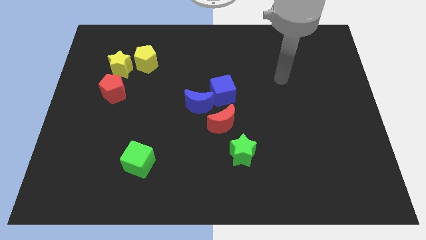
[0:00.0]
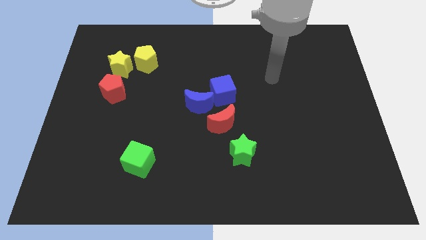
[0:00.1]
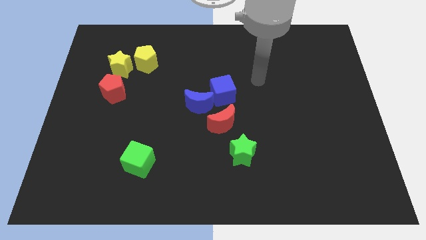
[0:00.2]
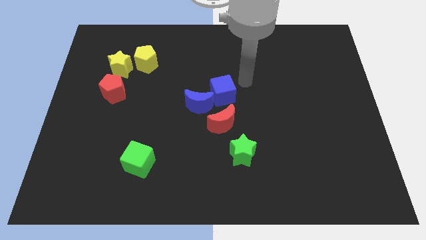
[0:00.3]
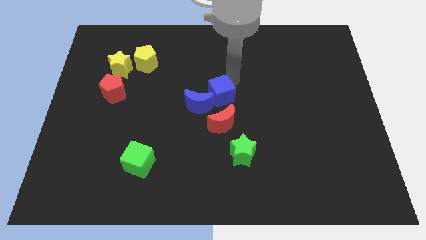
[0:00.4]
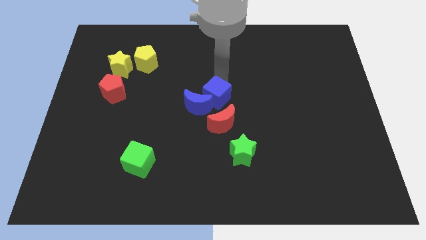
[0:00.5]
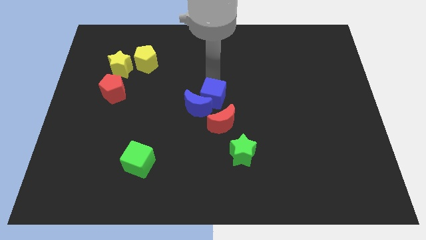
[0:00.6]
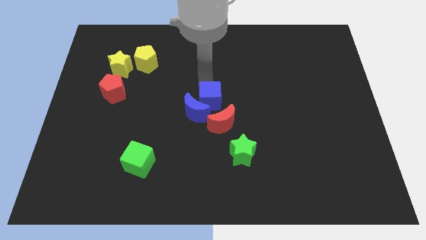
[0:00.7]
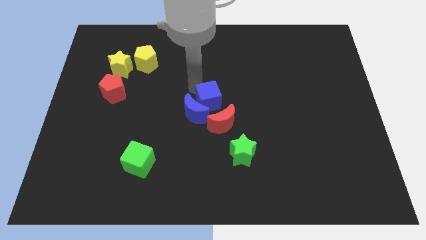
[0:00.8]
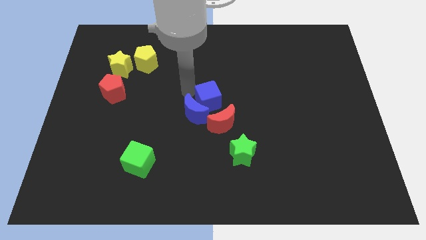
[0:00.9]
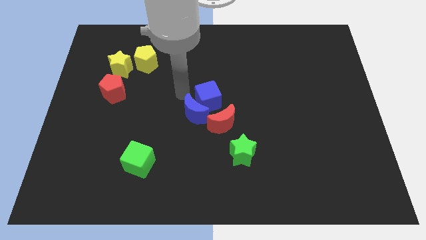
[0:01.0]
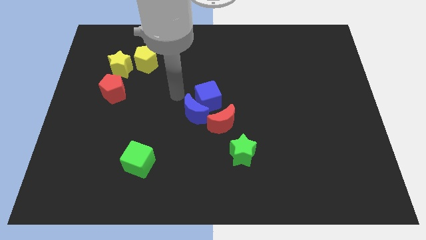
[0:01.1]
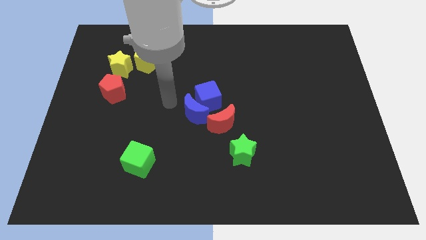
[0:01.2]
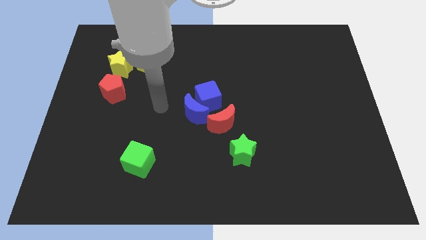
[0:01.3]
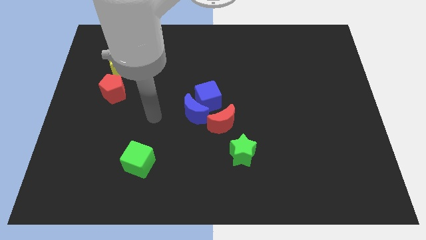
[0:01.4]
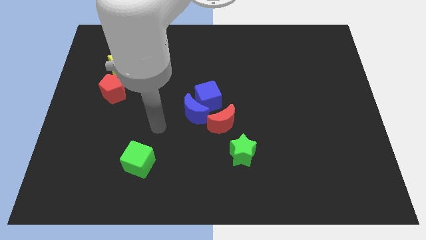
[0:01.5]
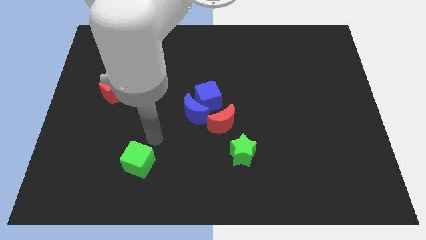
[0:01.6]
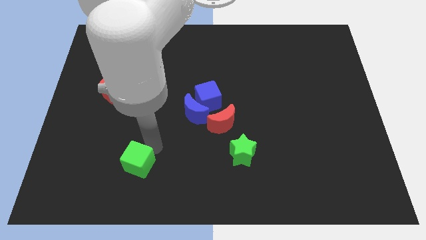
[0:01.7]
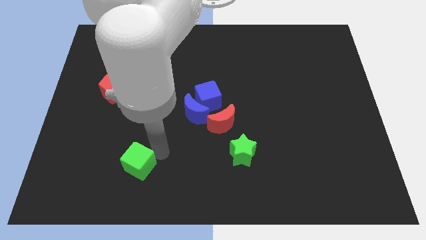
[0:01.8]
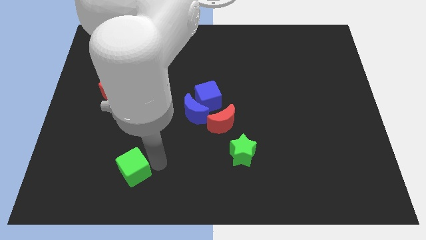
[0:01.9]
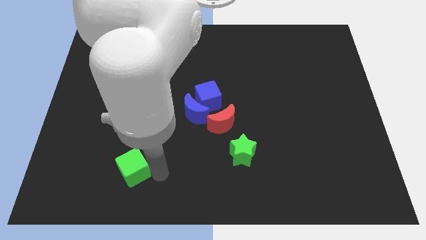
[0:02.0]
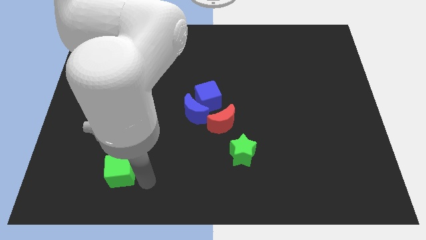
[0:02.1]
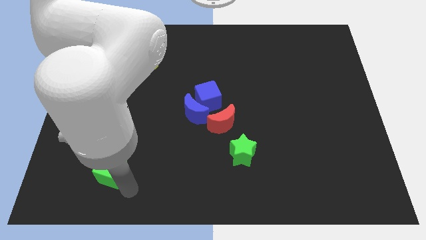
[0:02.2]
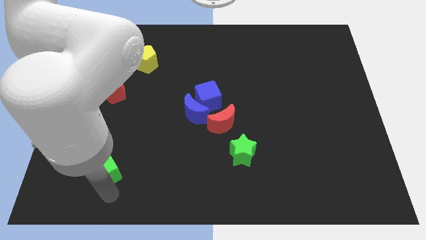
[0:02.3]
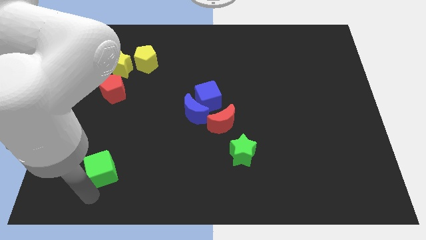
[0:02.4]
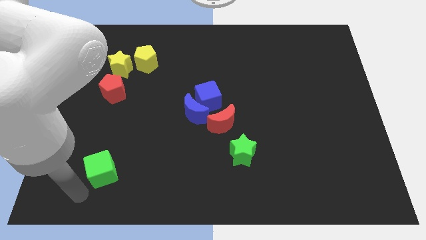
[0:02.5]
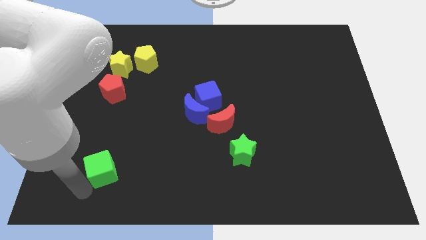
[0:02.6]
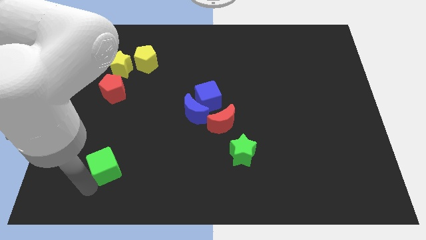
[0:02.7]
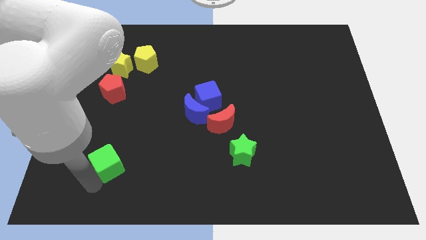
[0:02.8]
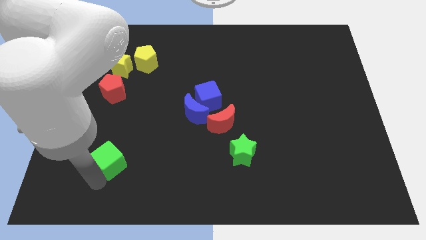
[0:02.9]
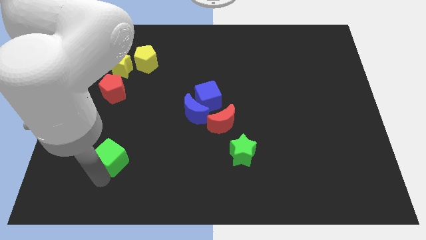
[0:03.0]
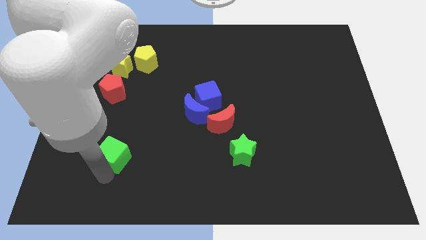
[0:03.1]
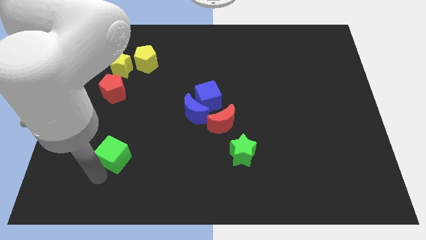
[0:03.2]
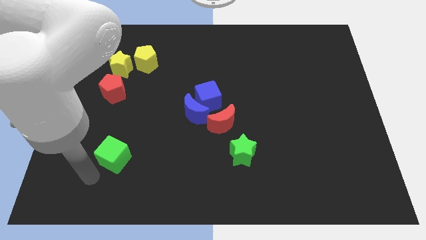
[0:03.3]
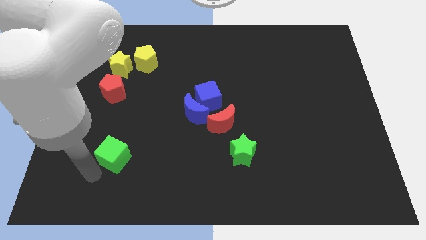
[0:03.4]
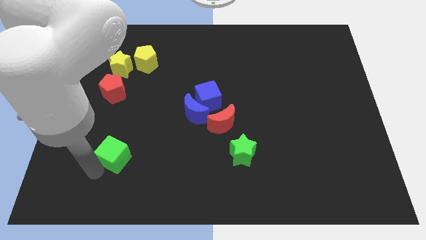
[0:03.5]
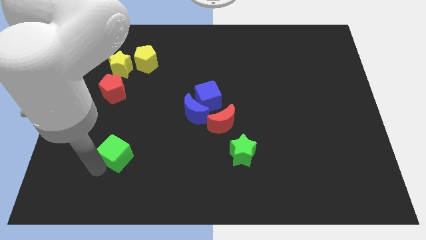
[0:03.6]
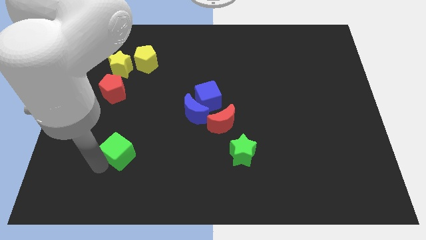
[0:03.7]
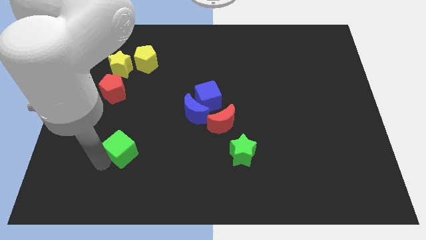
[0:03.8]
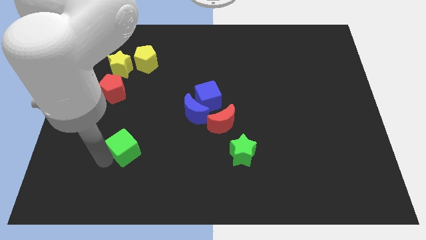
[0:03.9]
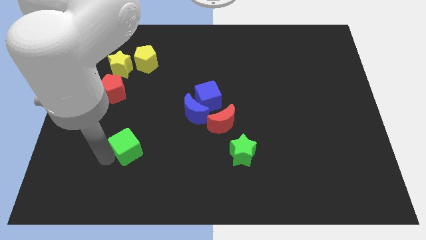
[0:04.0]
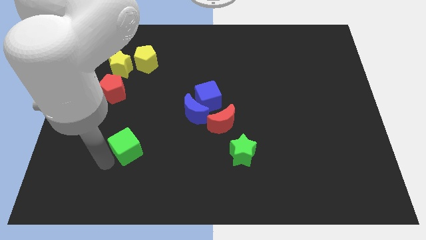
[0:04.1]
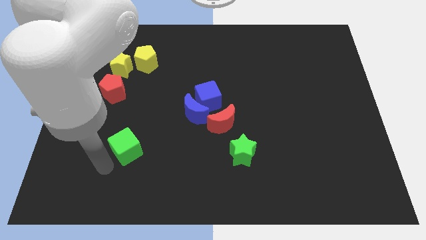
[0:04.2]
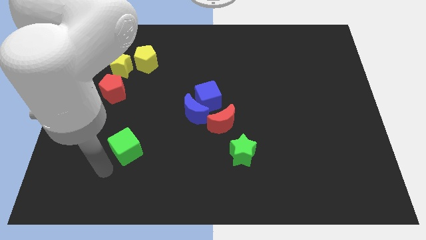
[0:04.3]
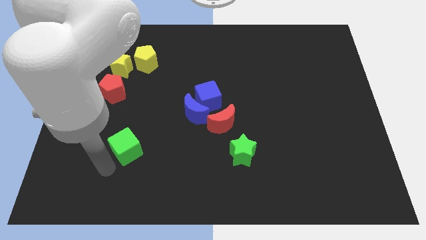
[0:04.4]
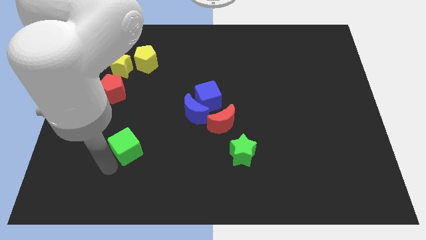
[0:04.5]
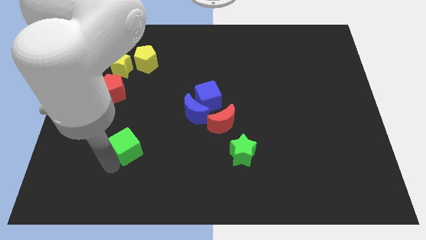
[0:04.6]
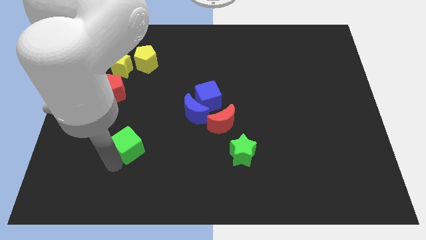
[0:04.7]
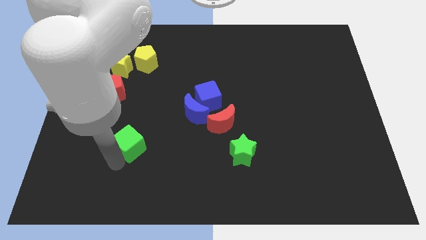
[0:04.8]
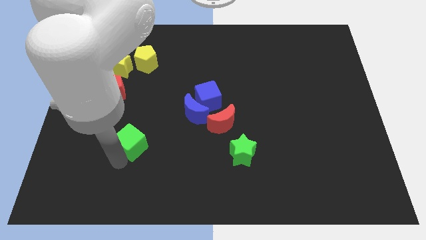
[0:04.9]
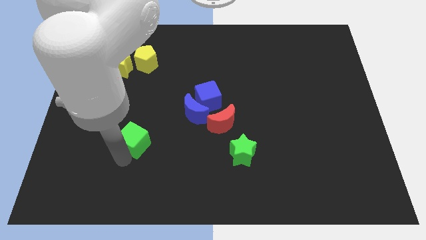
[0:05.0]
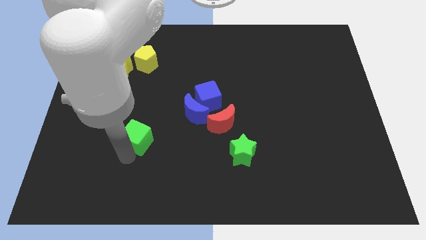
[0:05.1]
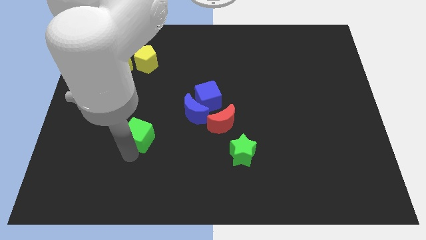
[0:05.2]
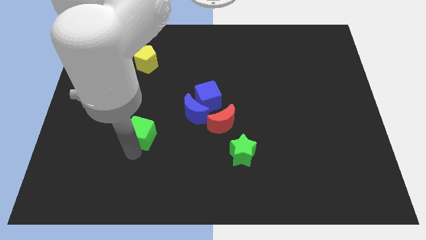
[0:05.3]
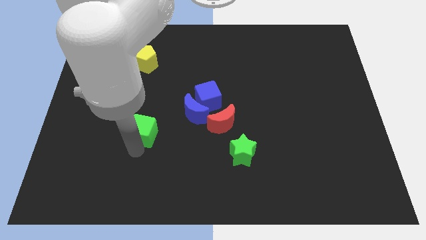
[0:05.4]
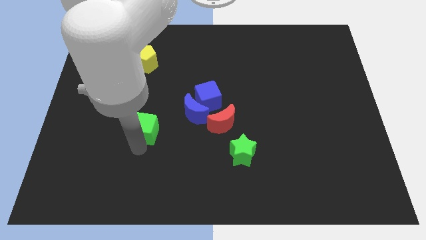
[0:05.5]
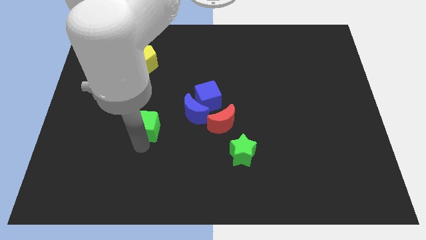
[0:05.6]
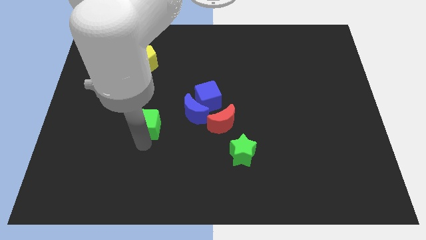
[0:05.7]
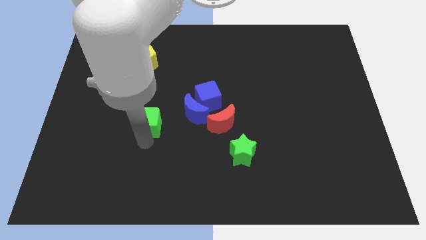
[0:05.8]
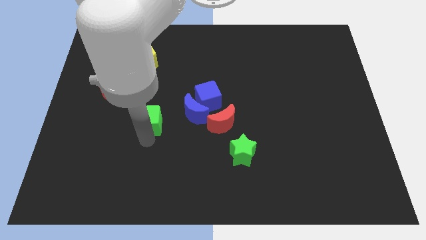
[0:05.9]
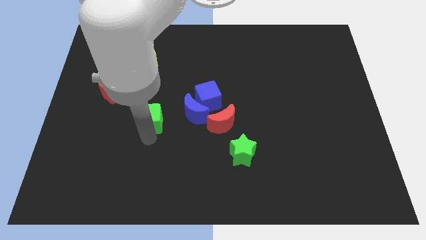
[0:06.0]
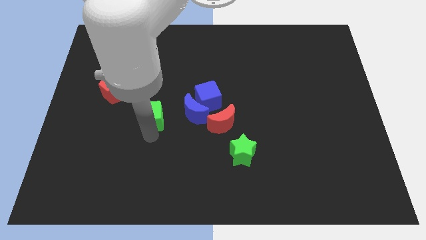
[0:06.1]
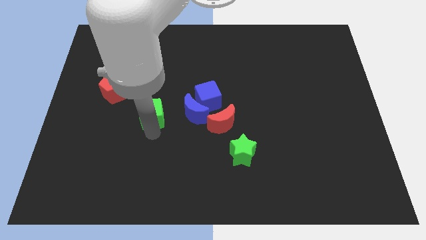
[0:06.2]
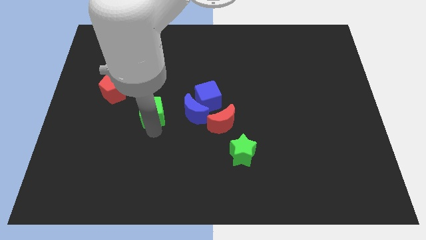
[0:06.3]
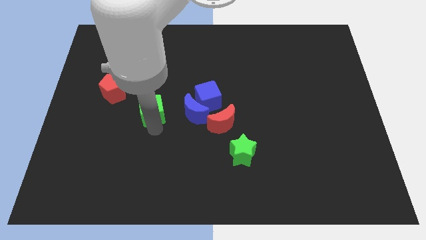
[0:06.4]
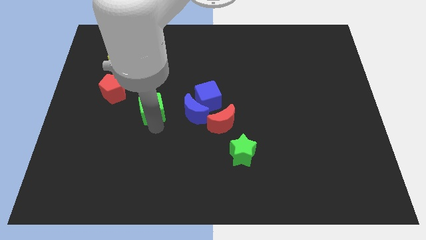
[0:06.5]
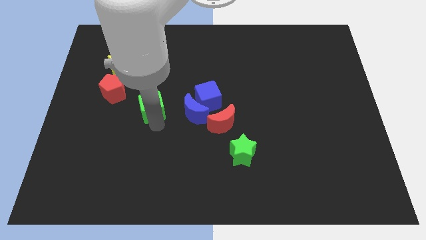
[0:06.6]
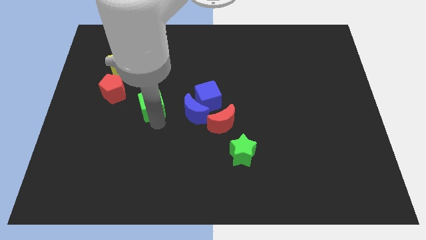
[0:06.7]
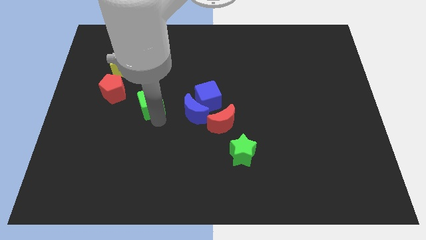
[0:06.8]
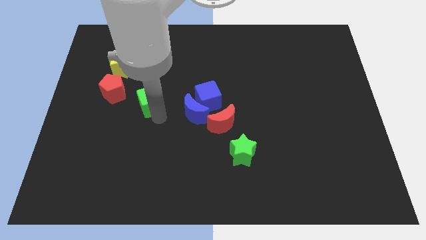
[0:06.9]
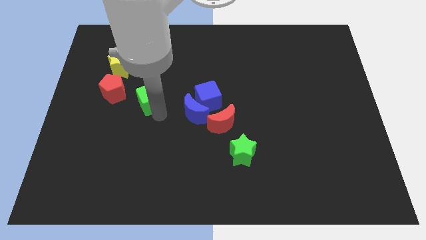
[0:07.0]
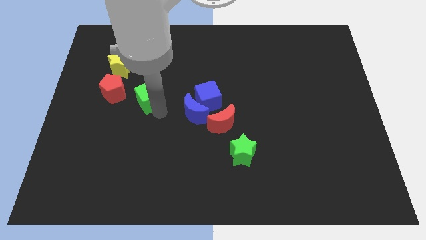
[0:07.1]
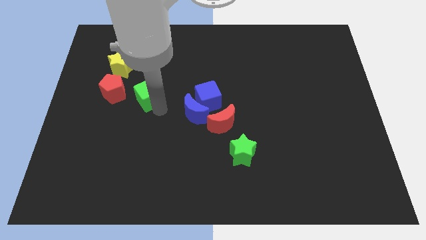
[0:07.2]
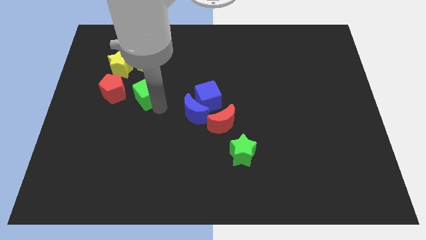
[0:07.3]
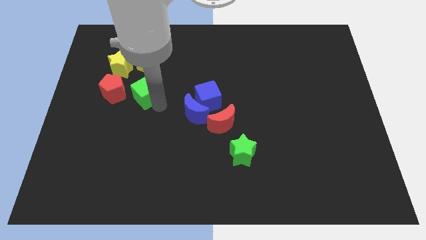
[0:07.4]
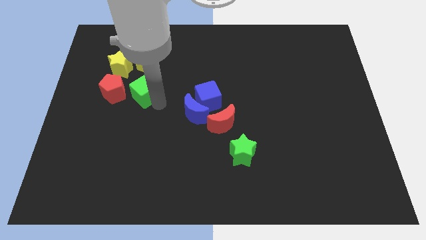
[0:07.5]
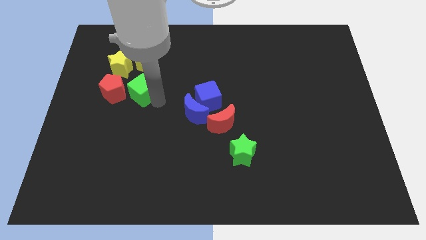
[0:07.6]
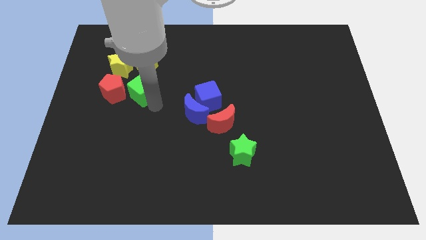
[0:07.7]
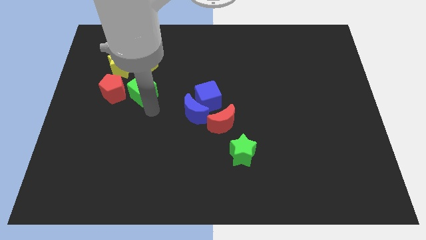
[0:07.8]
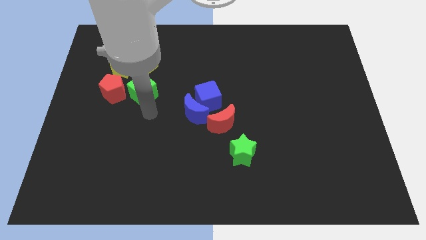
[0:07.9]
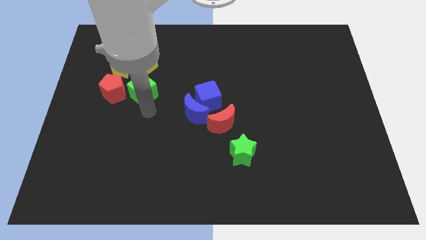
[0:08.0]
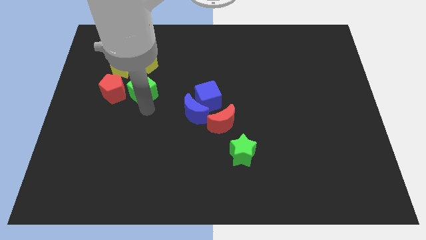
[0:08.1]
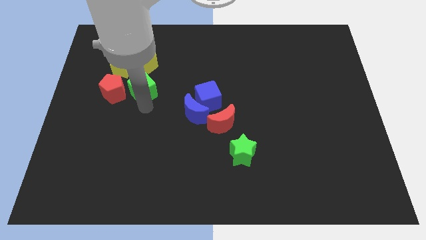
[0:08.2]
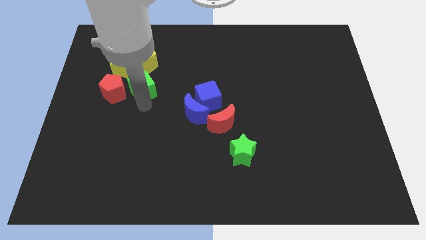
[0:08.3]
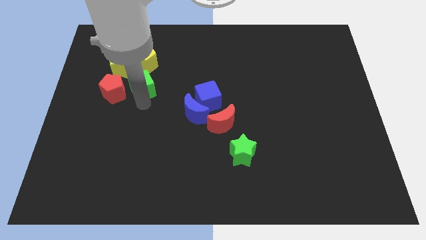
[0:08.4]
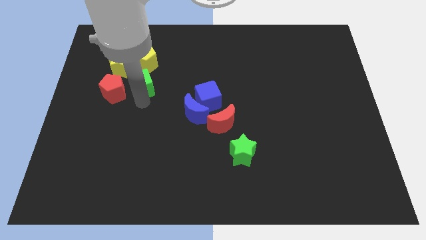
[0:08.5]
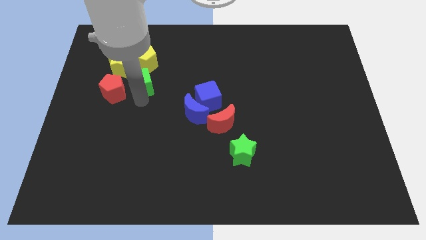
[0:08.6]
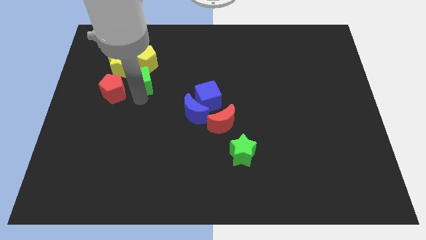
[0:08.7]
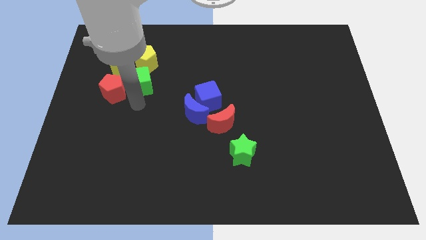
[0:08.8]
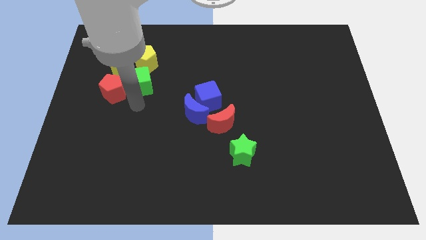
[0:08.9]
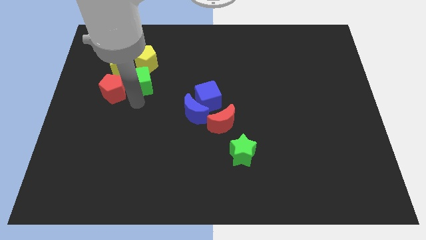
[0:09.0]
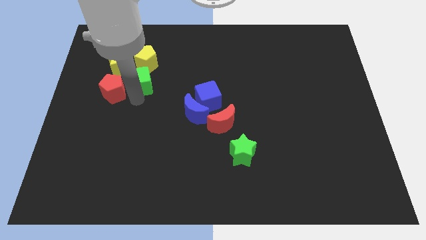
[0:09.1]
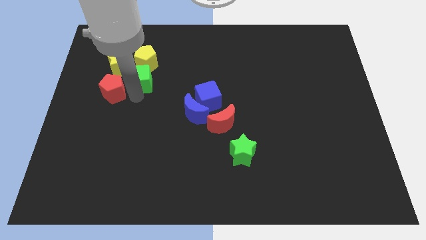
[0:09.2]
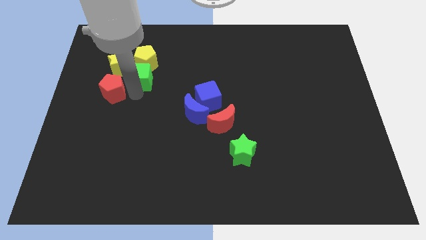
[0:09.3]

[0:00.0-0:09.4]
move the green cube close to the yellow pentagon
